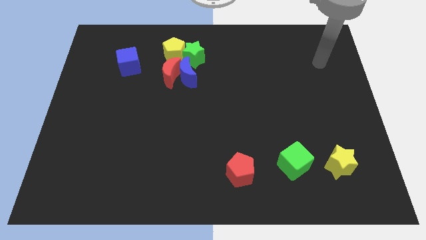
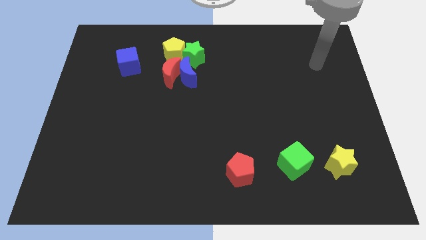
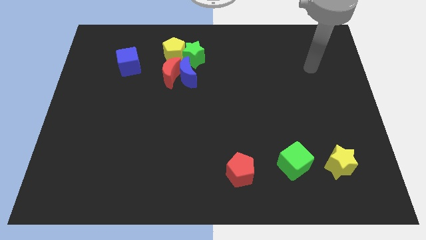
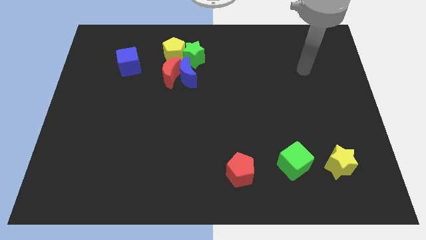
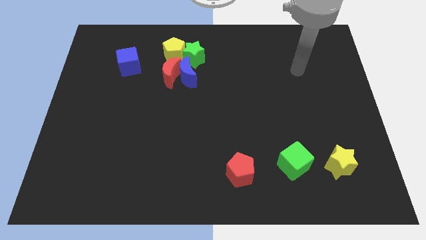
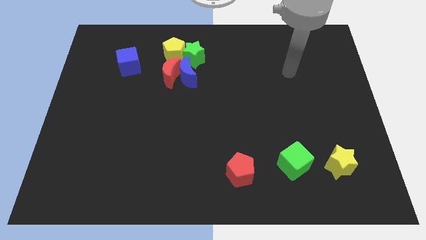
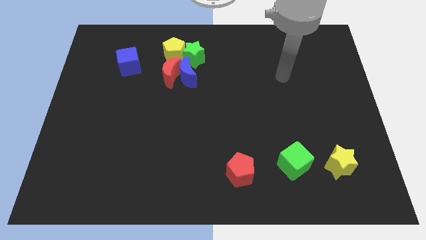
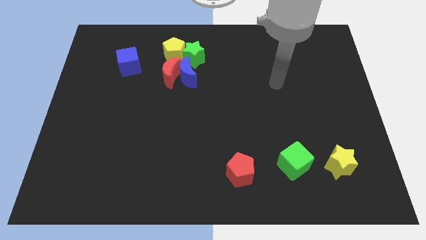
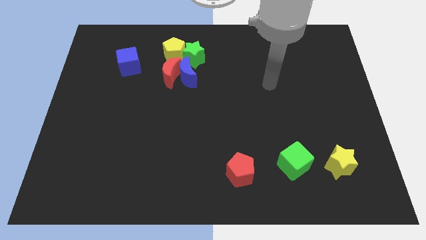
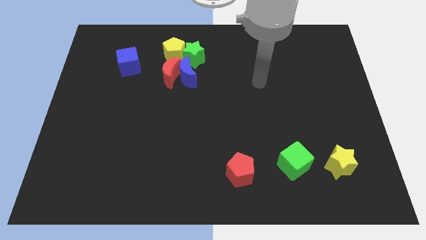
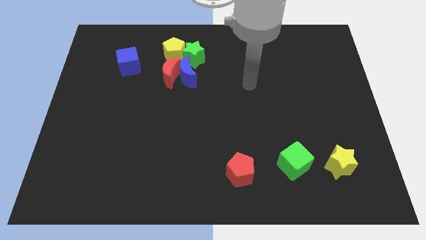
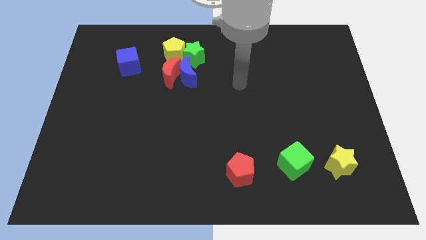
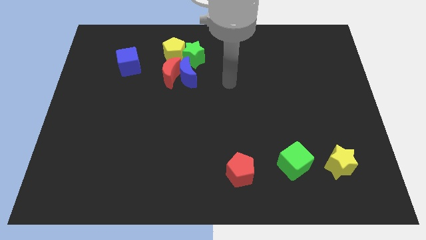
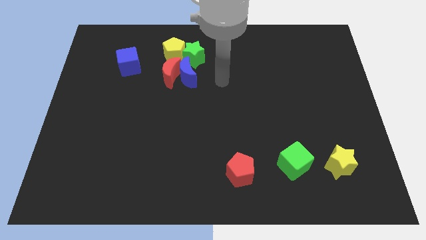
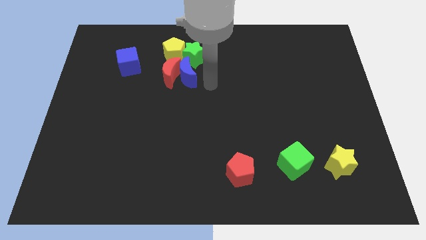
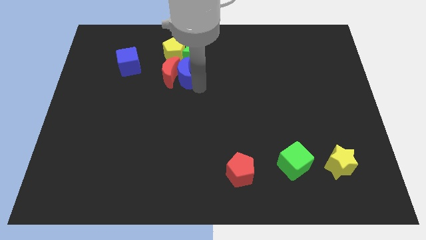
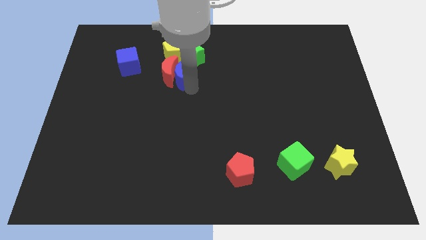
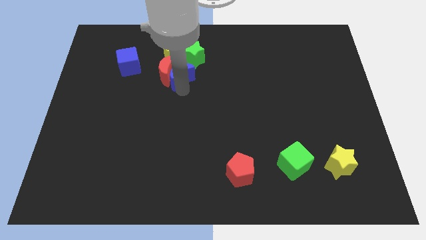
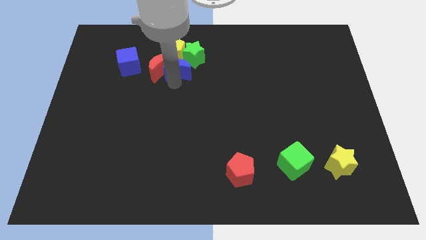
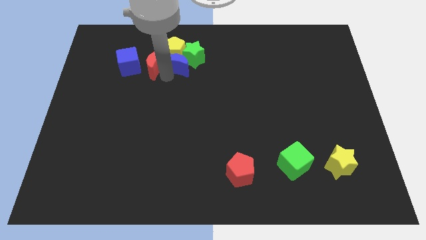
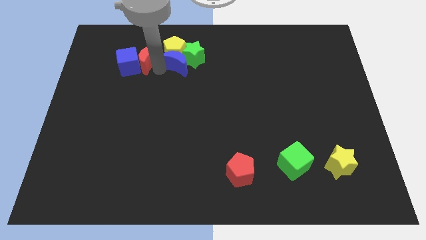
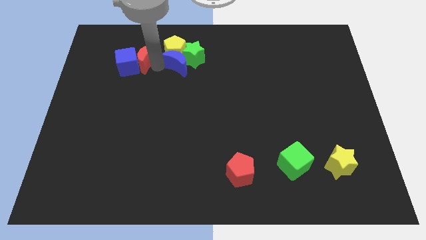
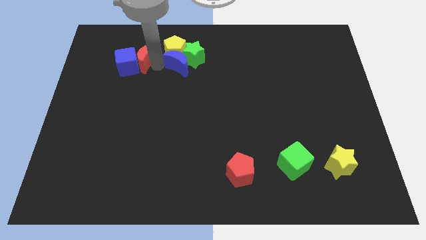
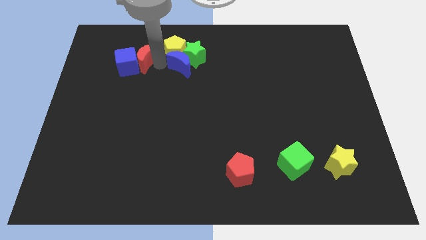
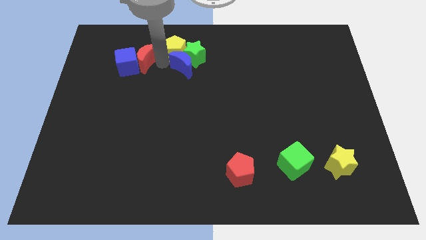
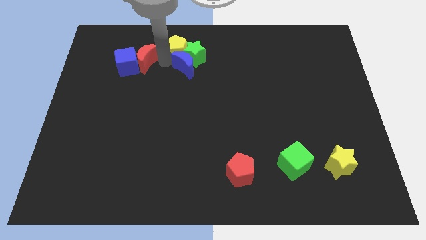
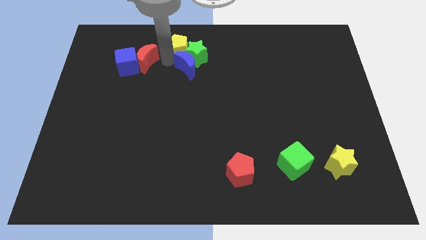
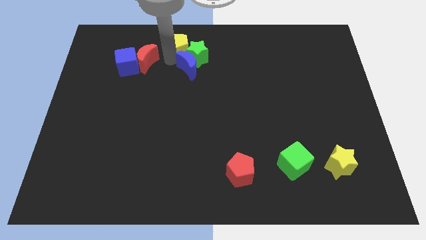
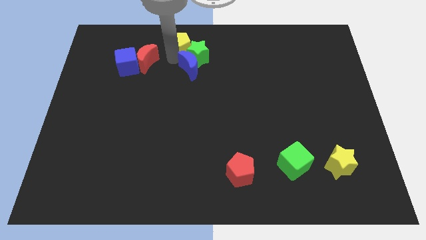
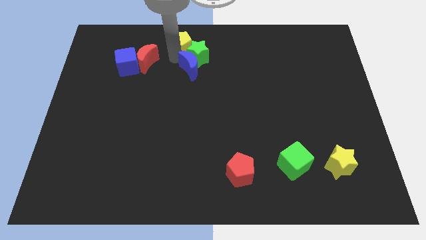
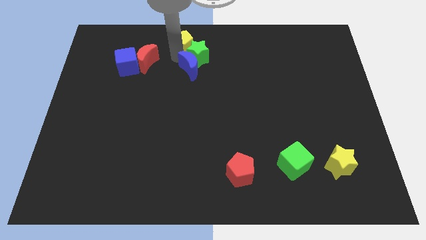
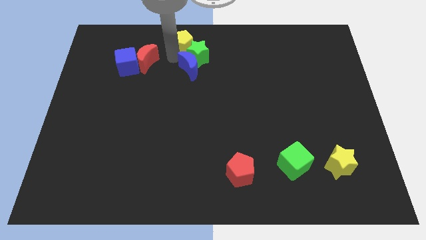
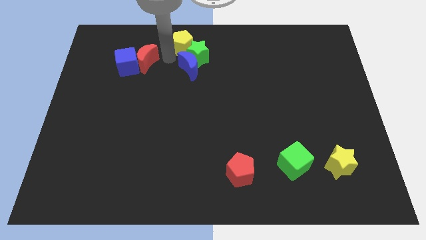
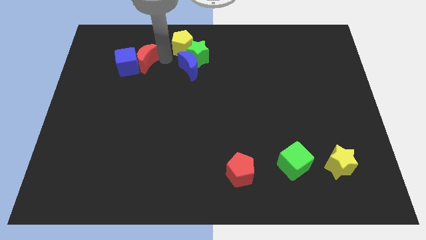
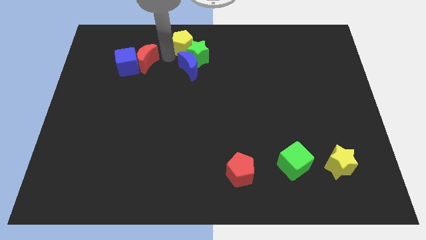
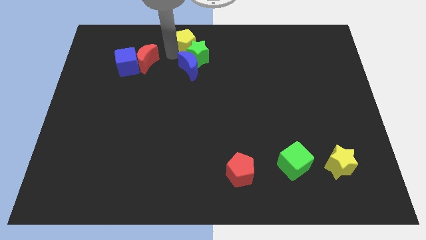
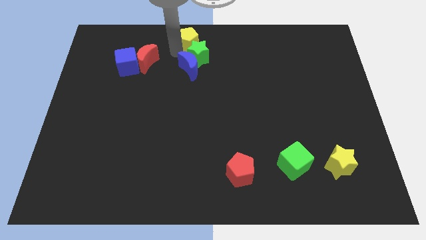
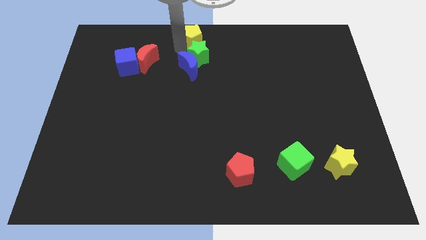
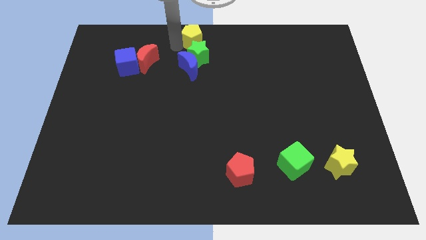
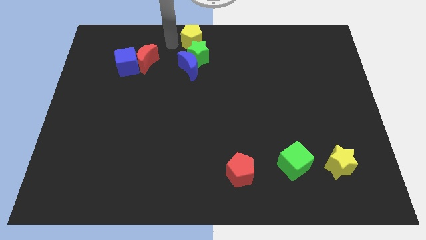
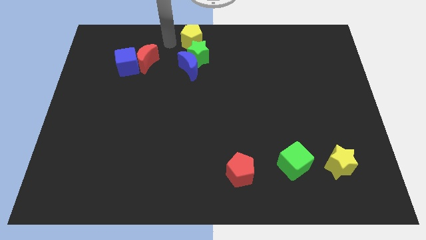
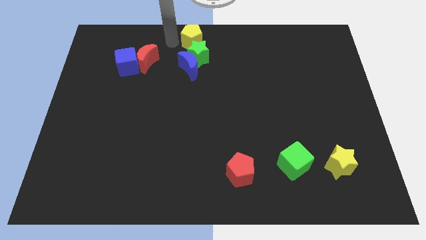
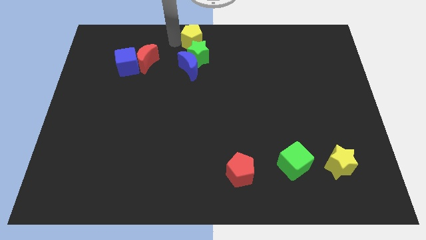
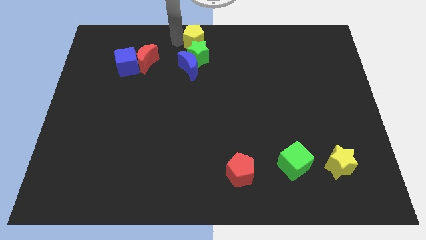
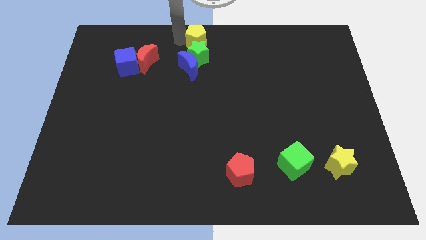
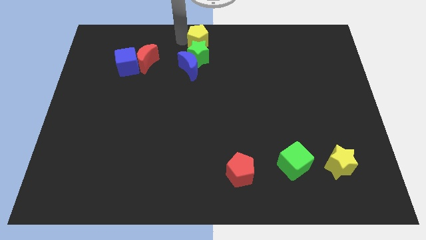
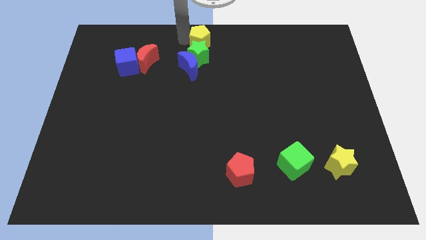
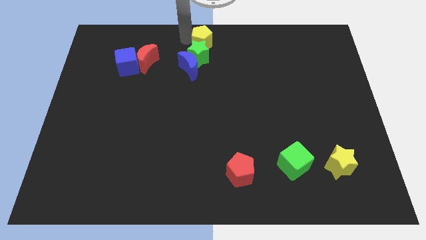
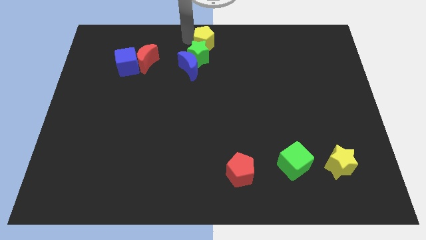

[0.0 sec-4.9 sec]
slide the yellow pentagon right a little bit

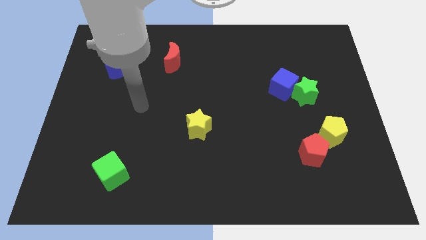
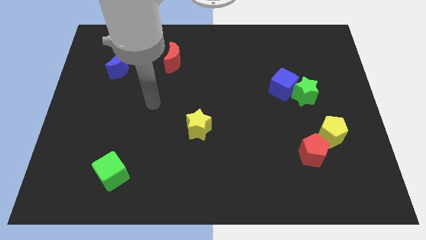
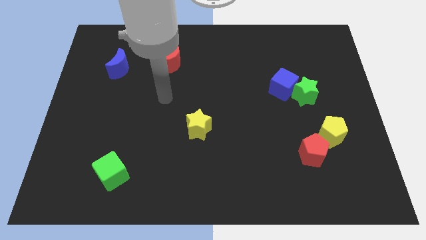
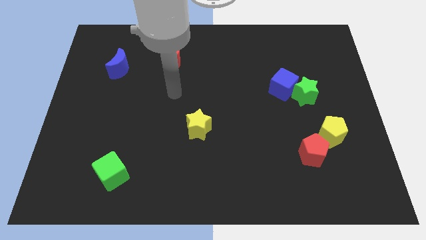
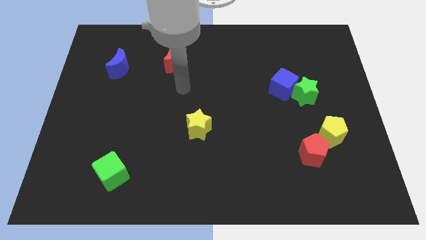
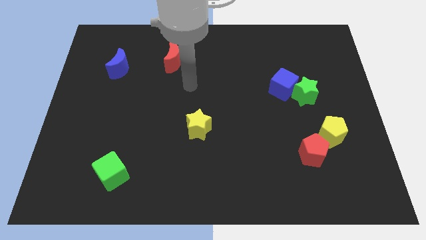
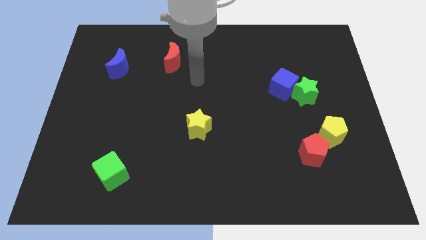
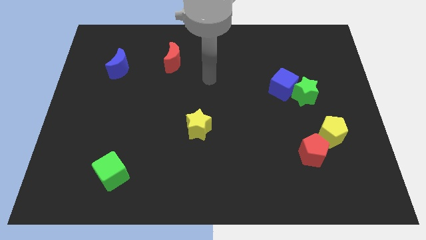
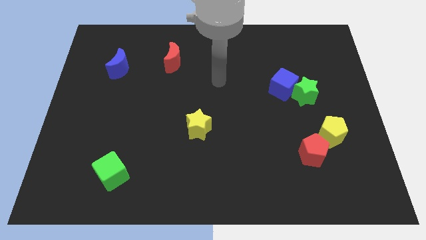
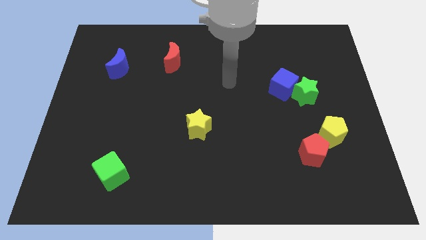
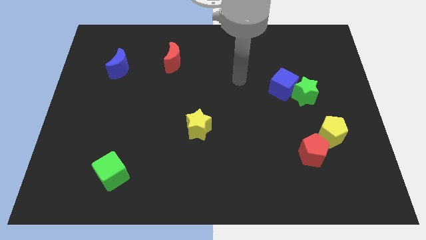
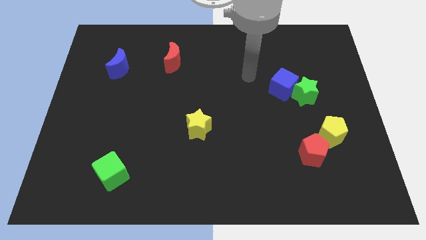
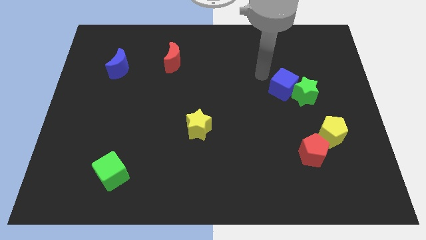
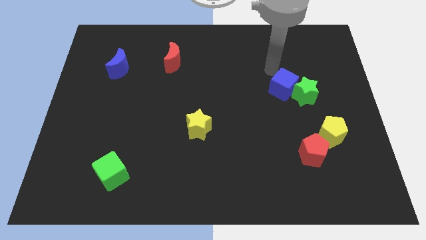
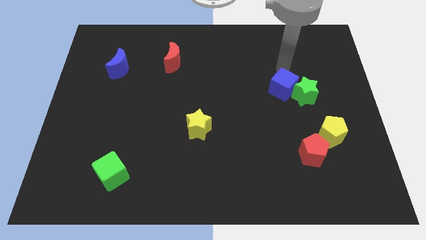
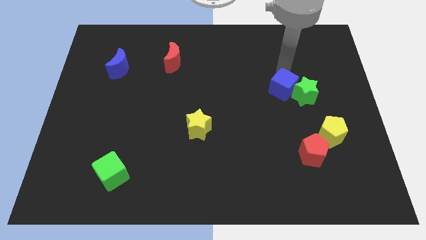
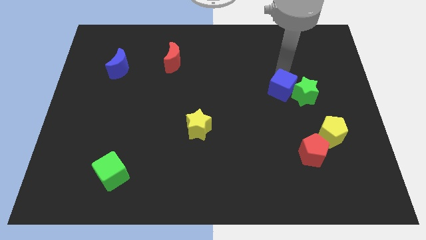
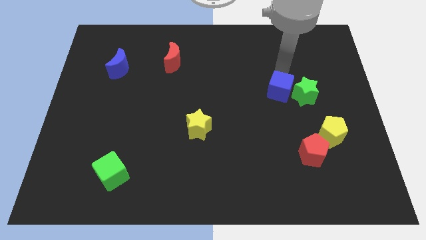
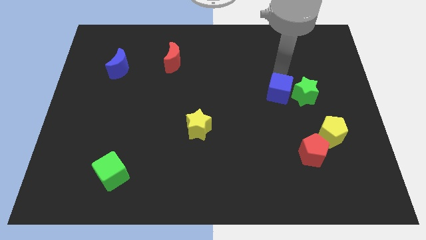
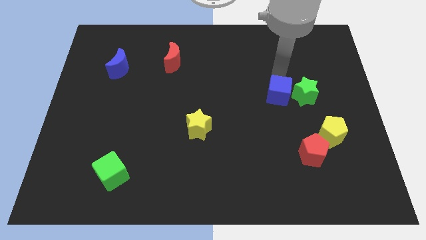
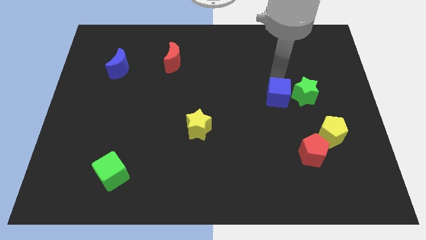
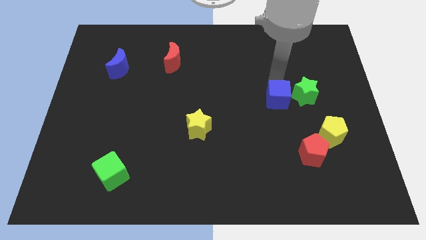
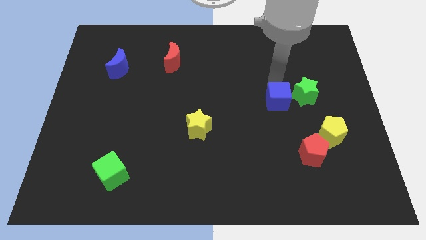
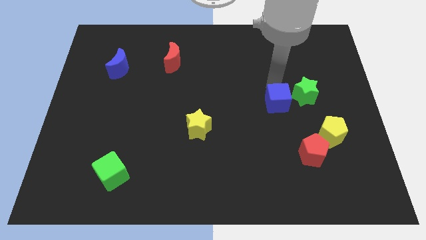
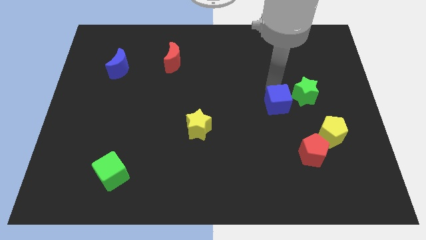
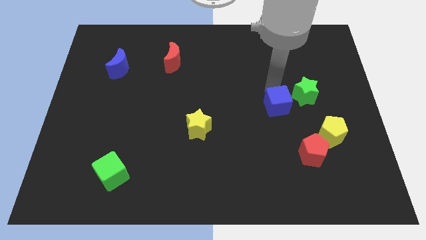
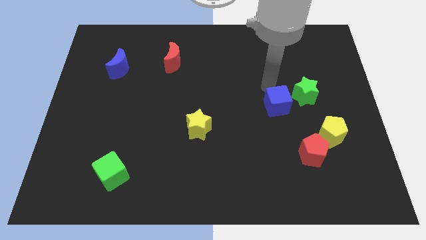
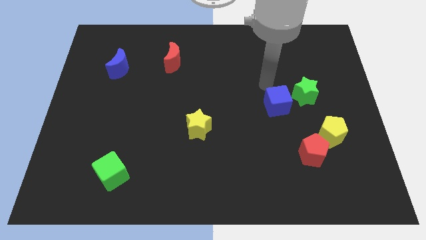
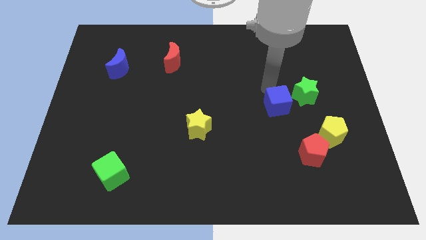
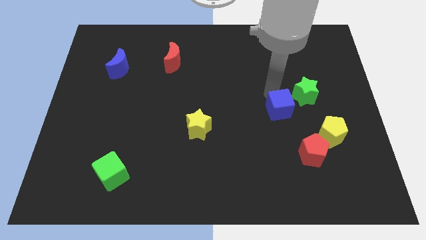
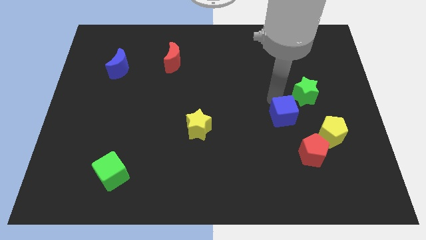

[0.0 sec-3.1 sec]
slightly push the blue cube down
